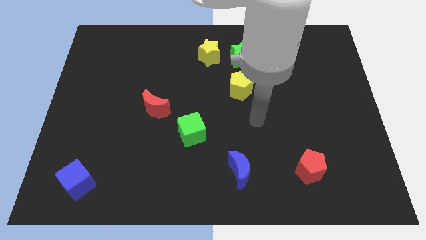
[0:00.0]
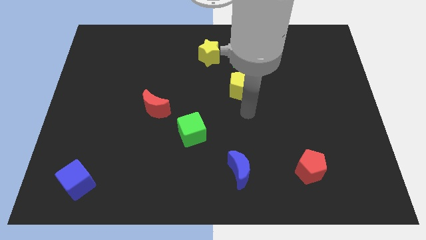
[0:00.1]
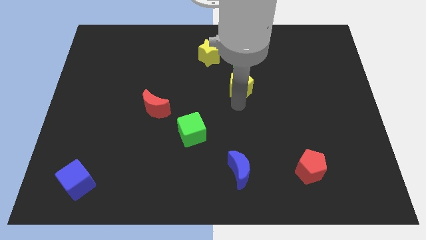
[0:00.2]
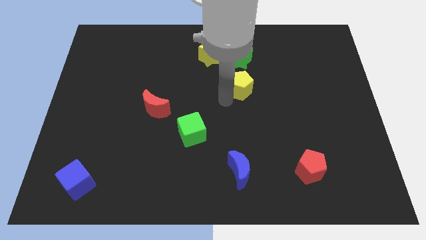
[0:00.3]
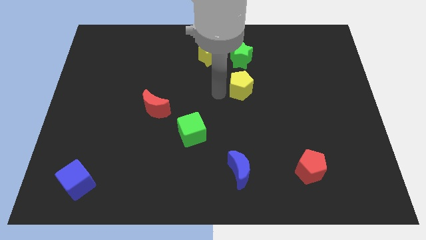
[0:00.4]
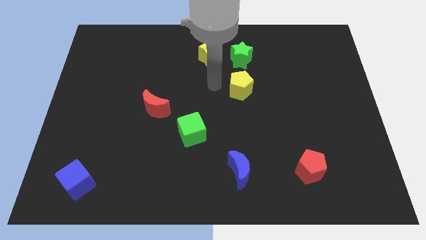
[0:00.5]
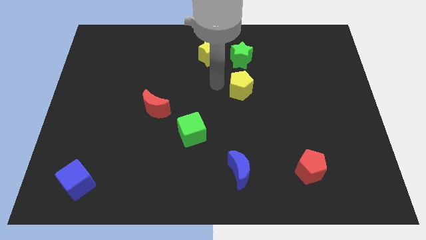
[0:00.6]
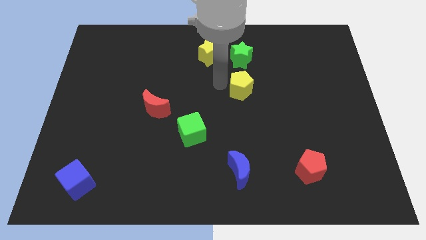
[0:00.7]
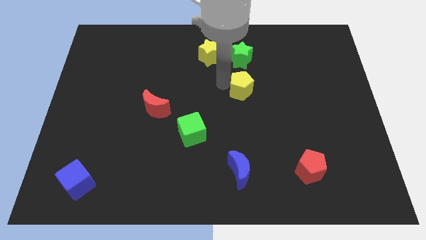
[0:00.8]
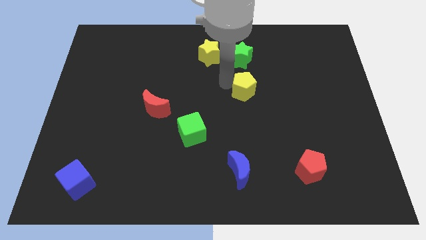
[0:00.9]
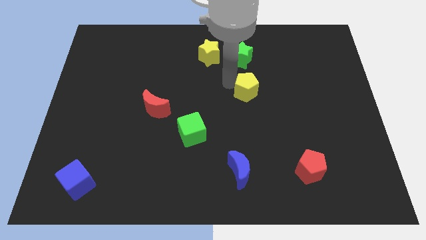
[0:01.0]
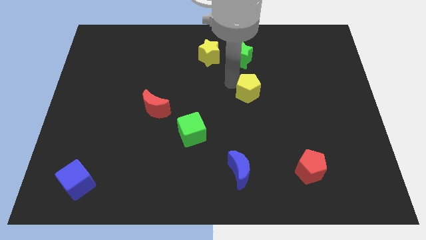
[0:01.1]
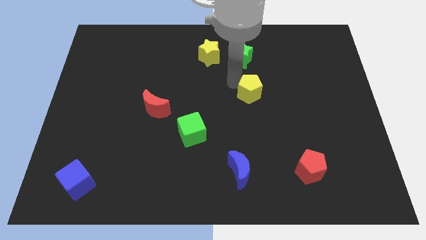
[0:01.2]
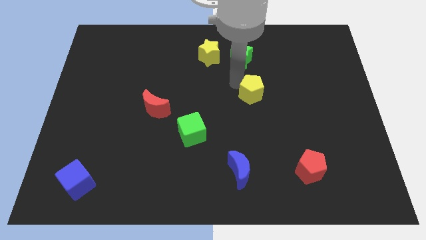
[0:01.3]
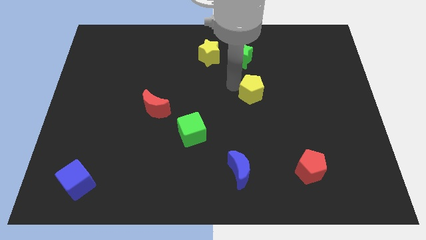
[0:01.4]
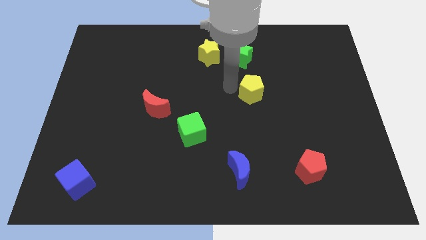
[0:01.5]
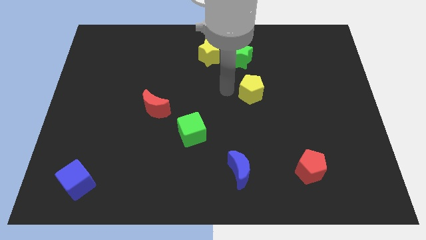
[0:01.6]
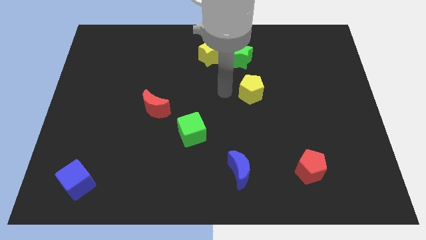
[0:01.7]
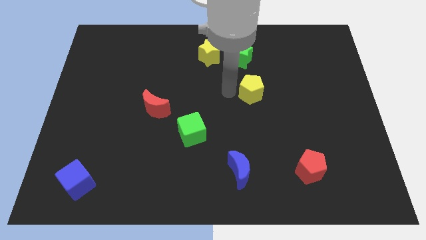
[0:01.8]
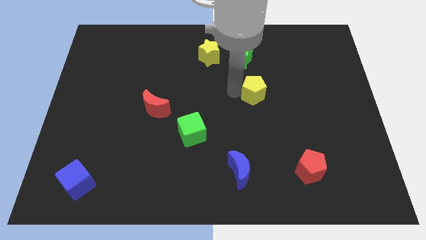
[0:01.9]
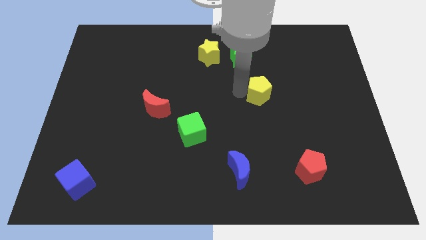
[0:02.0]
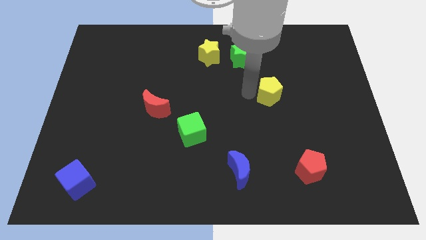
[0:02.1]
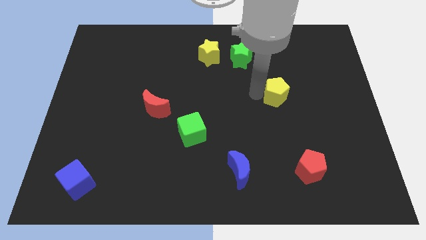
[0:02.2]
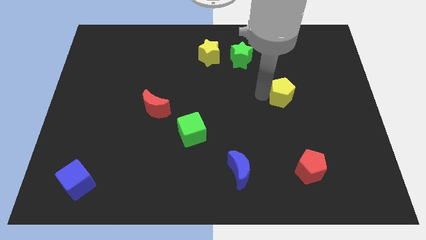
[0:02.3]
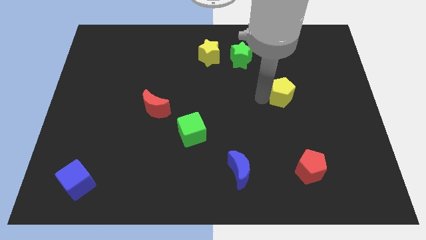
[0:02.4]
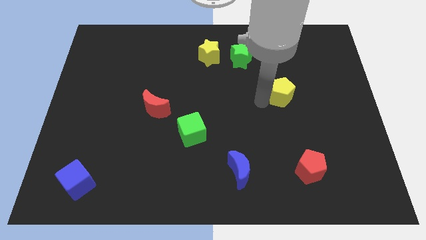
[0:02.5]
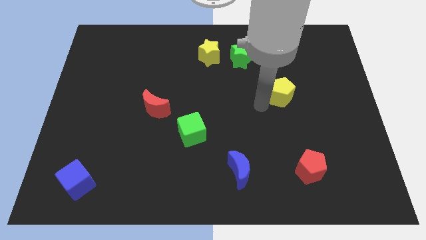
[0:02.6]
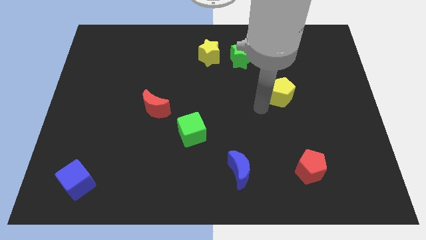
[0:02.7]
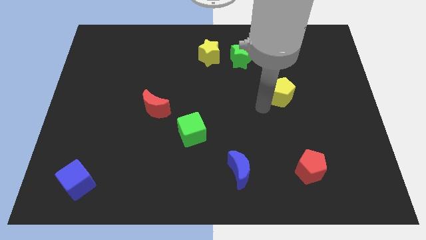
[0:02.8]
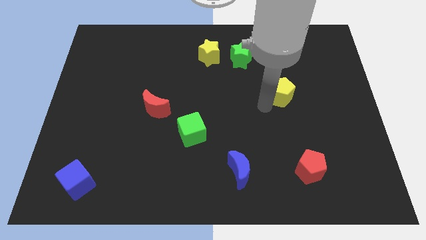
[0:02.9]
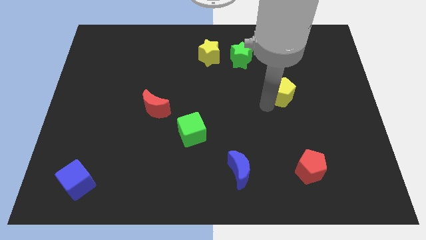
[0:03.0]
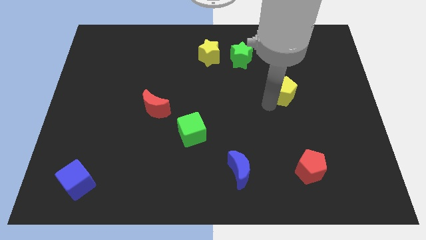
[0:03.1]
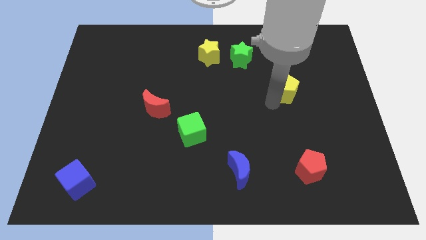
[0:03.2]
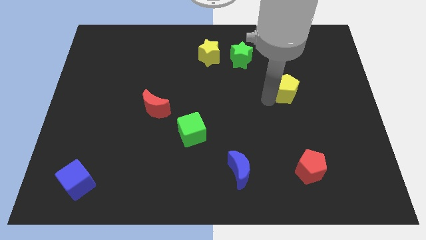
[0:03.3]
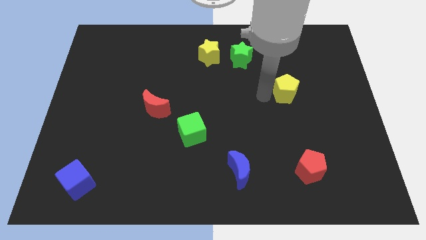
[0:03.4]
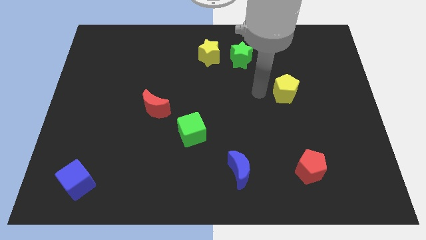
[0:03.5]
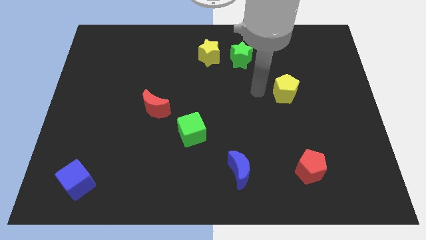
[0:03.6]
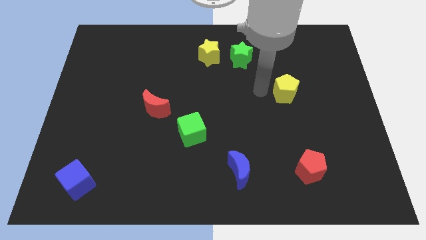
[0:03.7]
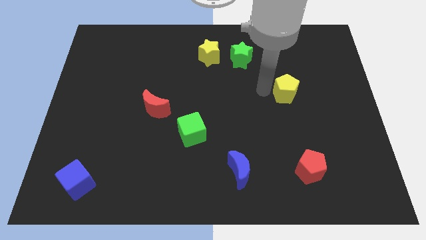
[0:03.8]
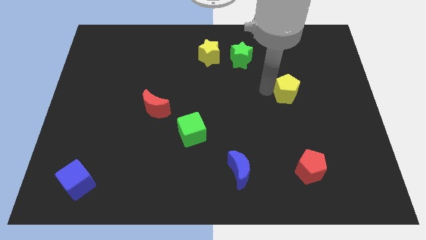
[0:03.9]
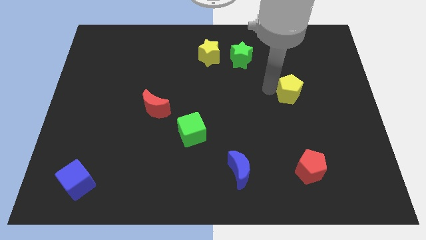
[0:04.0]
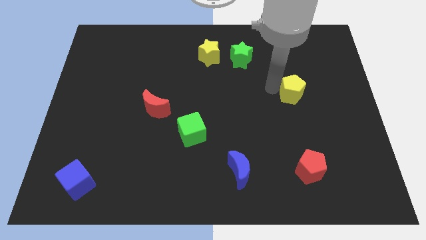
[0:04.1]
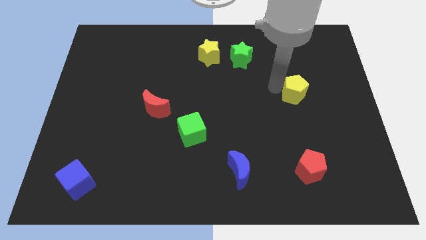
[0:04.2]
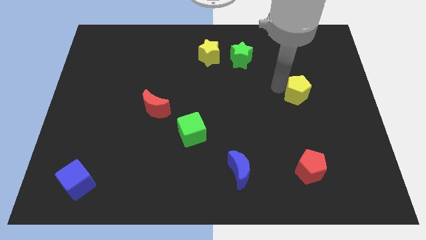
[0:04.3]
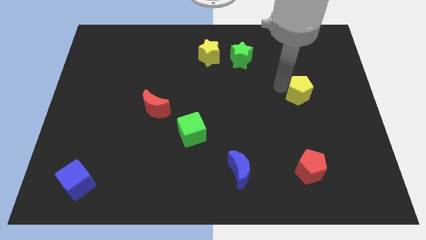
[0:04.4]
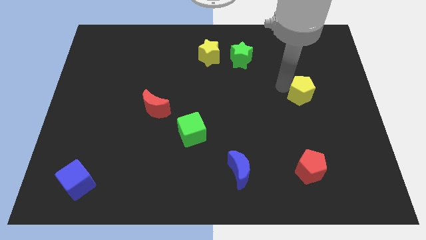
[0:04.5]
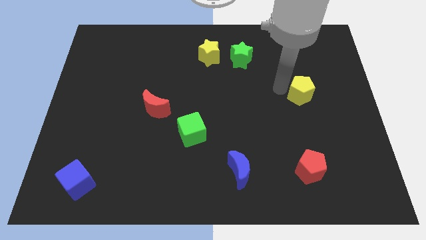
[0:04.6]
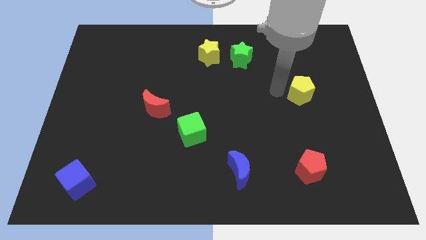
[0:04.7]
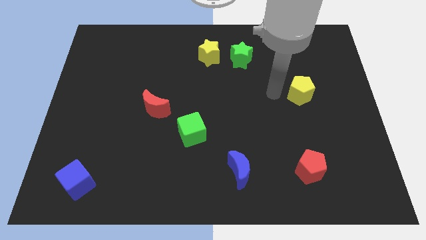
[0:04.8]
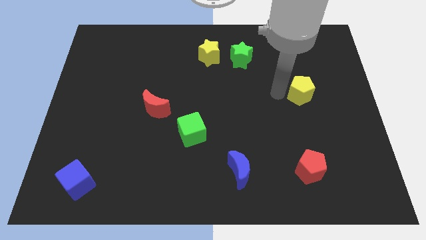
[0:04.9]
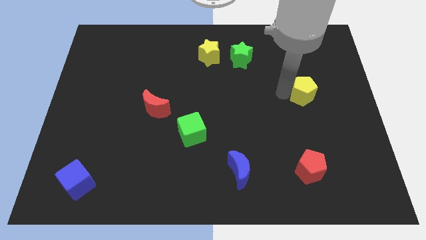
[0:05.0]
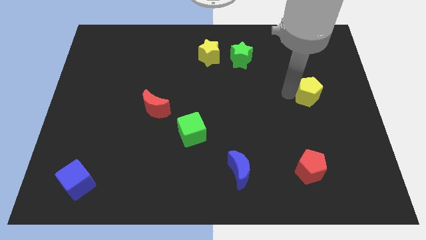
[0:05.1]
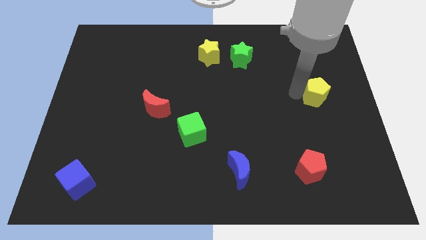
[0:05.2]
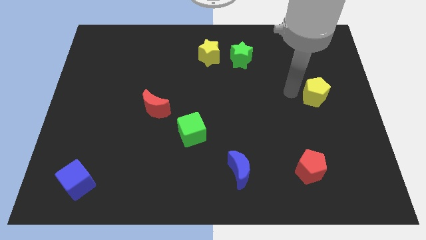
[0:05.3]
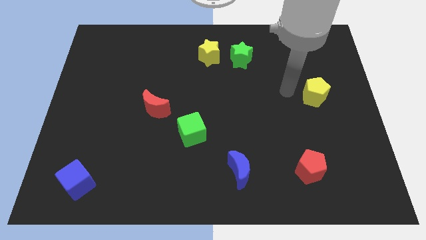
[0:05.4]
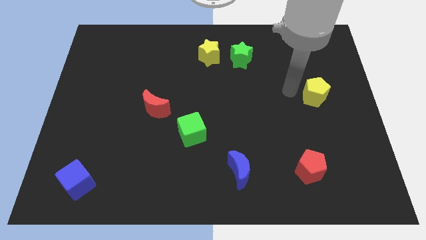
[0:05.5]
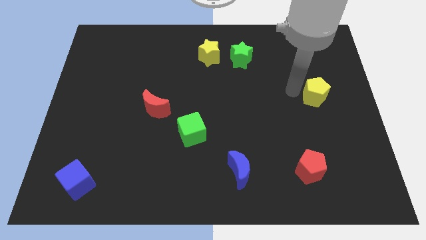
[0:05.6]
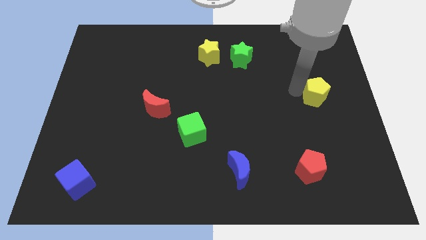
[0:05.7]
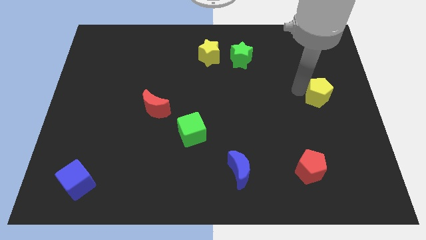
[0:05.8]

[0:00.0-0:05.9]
push the yellow pentagon to the center right

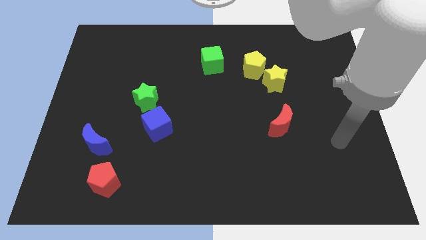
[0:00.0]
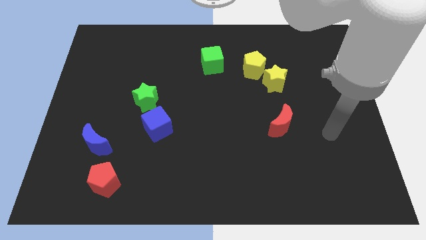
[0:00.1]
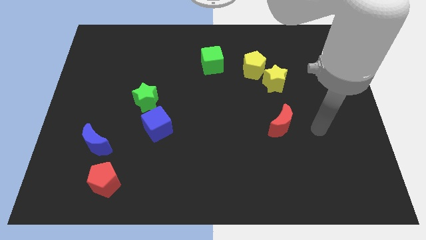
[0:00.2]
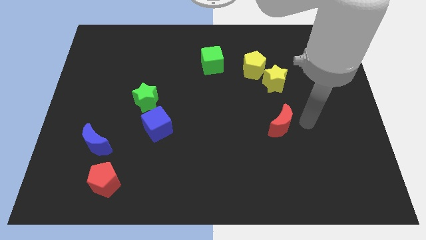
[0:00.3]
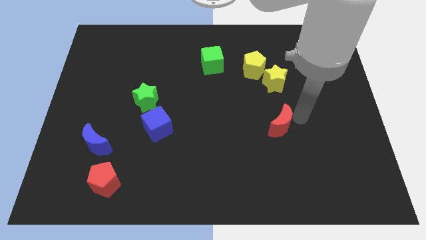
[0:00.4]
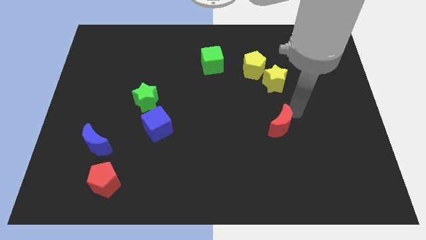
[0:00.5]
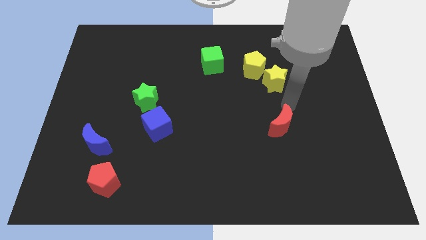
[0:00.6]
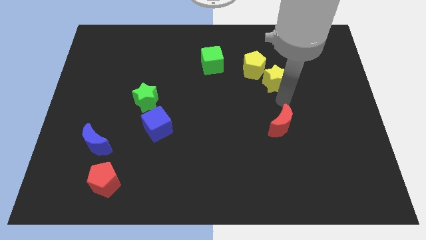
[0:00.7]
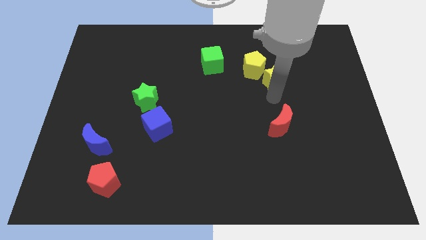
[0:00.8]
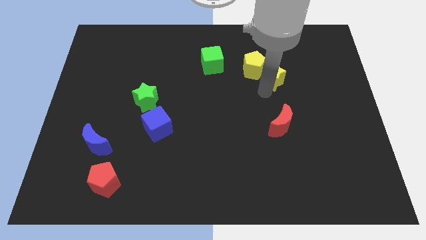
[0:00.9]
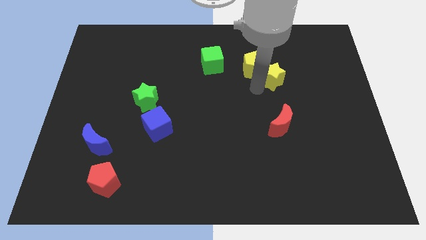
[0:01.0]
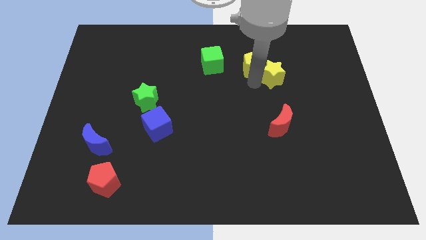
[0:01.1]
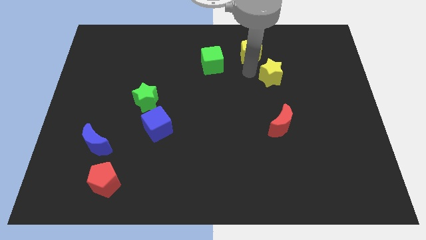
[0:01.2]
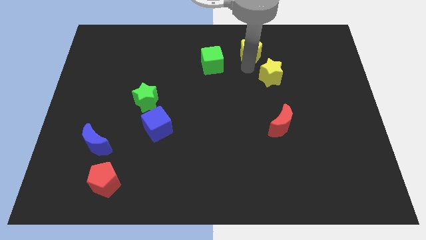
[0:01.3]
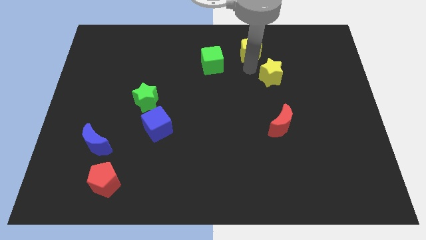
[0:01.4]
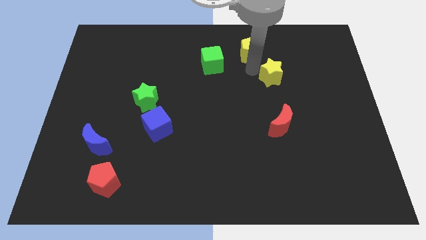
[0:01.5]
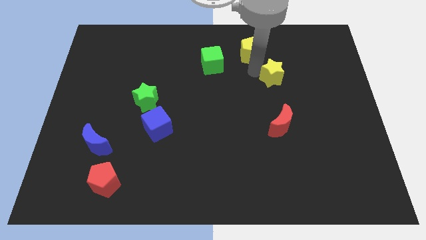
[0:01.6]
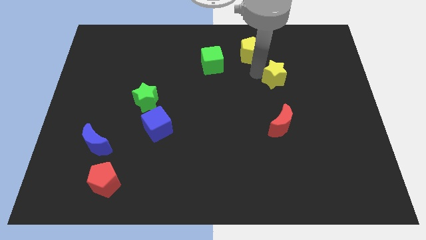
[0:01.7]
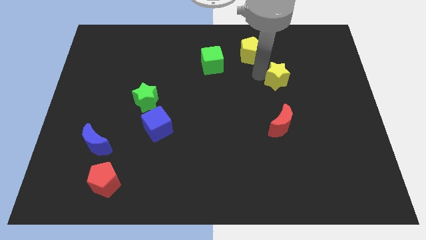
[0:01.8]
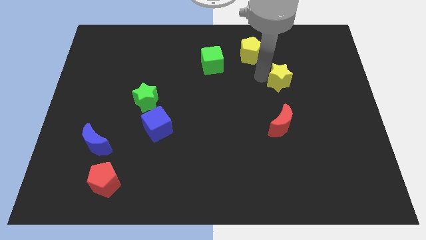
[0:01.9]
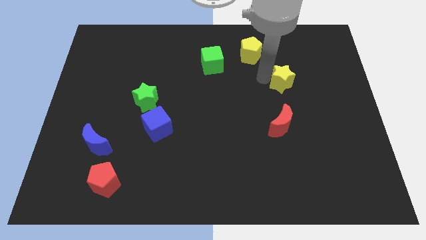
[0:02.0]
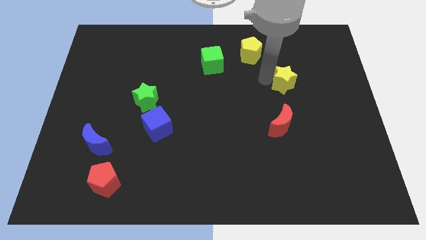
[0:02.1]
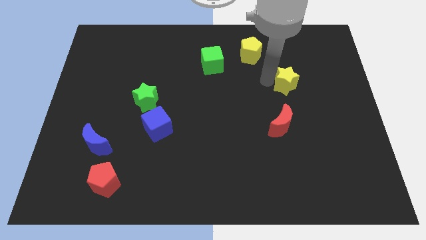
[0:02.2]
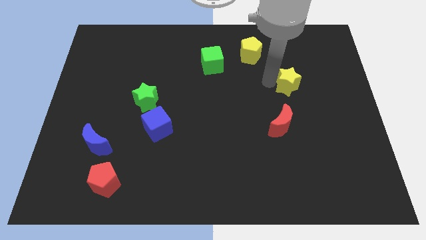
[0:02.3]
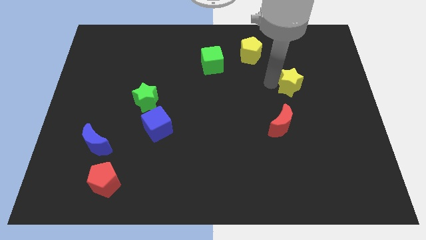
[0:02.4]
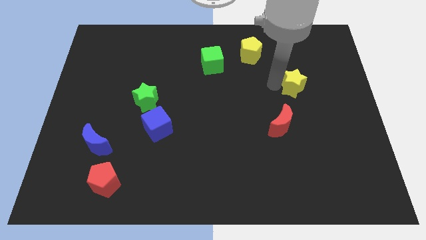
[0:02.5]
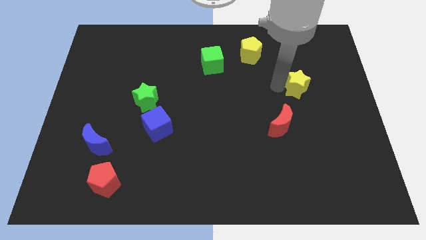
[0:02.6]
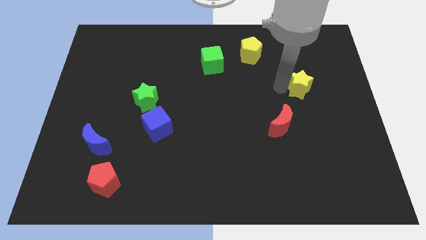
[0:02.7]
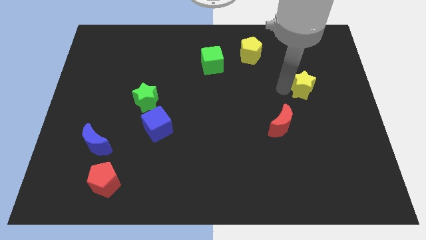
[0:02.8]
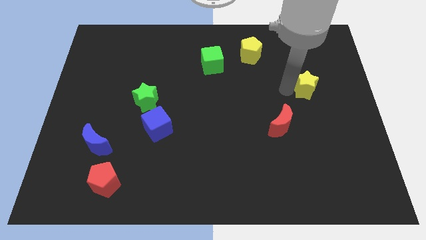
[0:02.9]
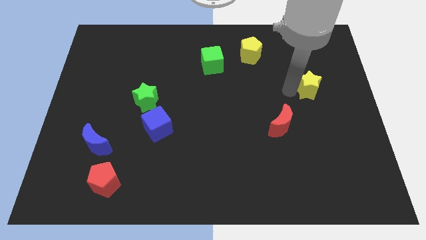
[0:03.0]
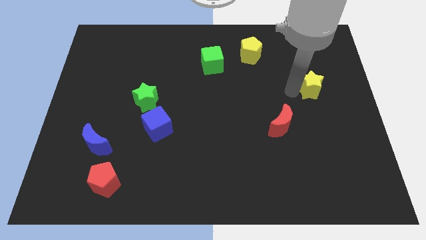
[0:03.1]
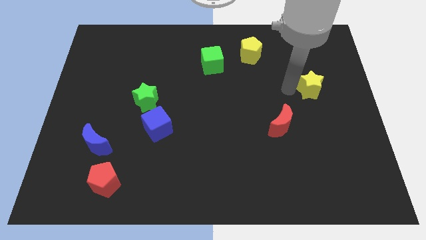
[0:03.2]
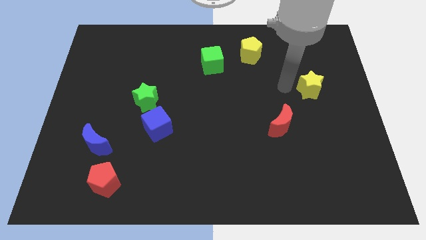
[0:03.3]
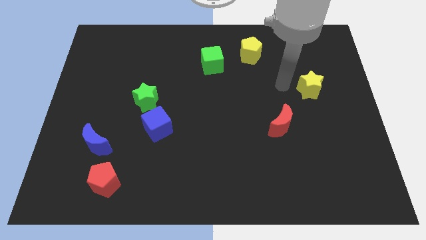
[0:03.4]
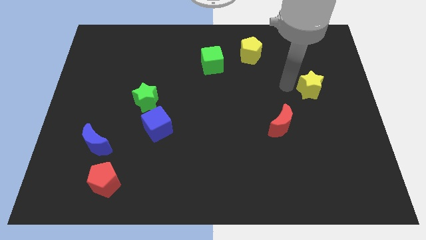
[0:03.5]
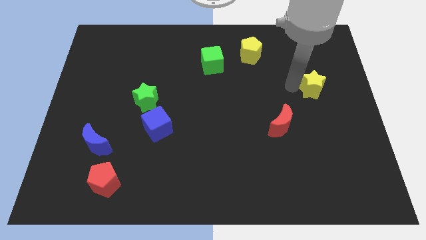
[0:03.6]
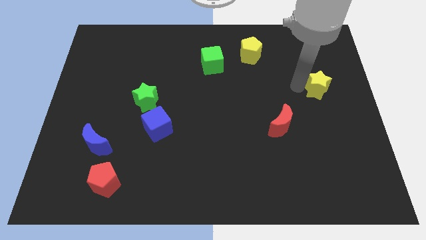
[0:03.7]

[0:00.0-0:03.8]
push the yellow star to the center right
